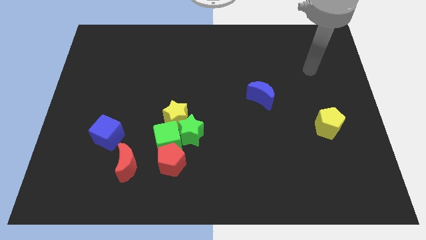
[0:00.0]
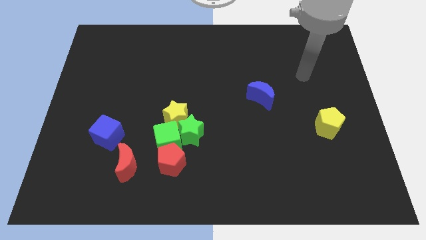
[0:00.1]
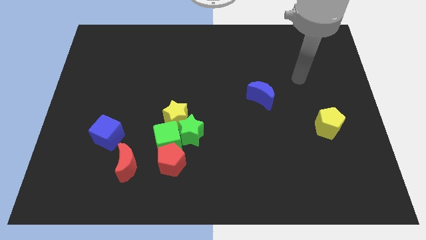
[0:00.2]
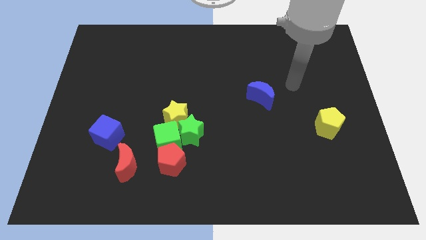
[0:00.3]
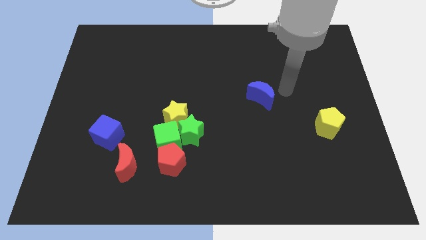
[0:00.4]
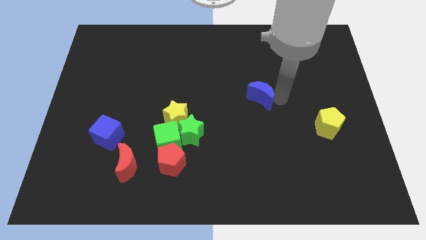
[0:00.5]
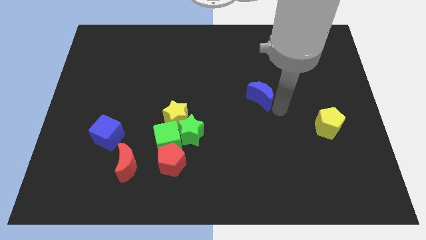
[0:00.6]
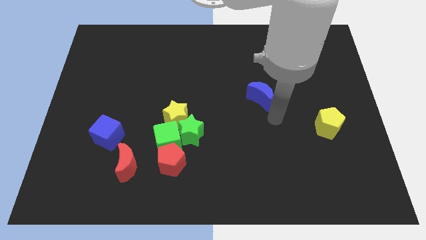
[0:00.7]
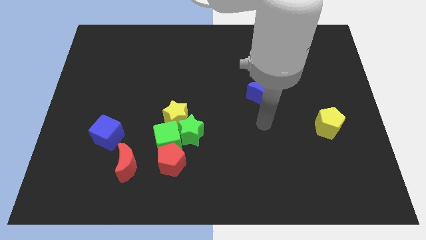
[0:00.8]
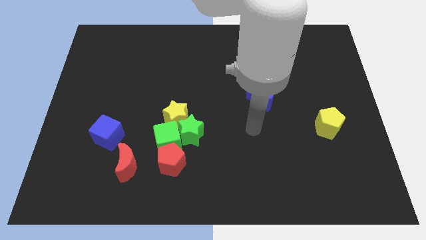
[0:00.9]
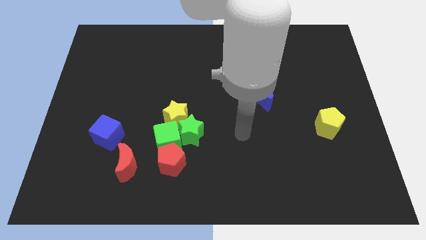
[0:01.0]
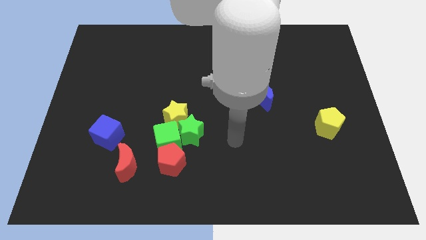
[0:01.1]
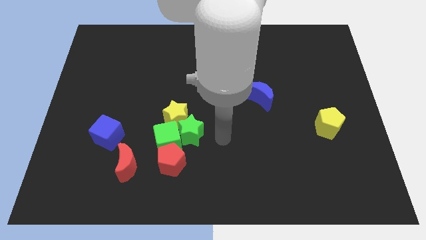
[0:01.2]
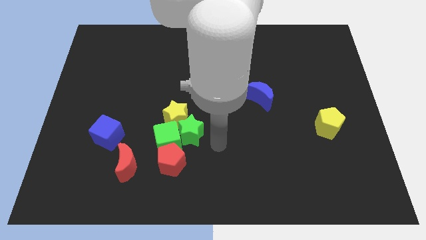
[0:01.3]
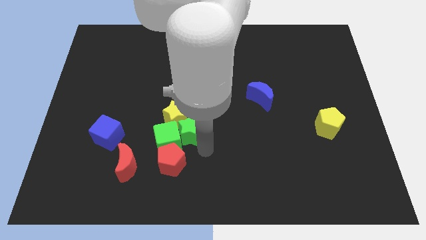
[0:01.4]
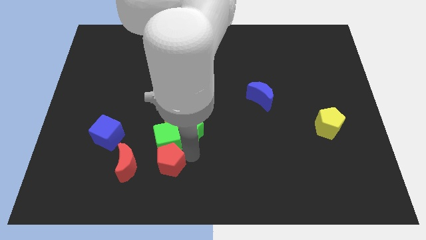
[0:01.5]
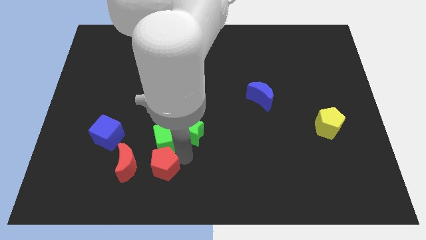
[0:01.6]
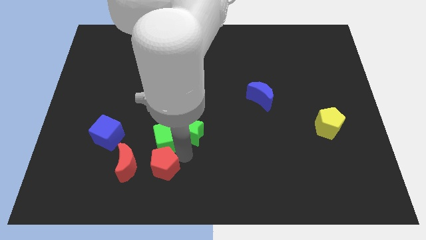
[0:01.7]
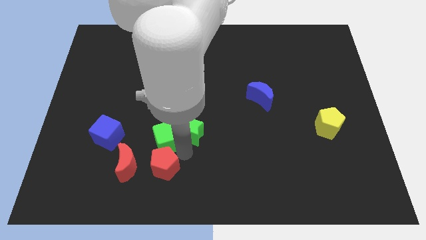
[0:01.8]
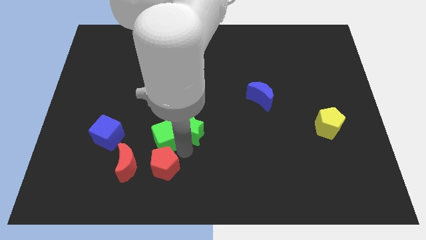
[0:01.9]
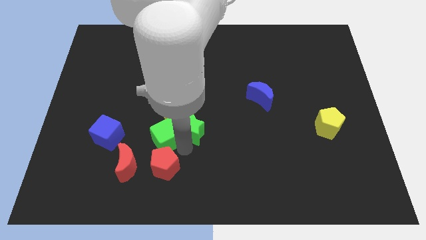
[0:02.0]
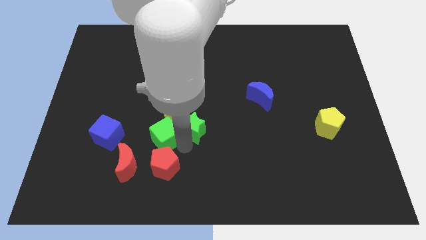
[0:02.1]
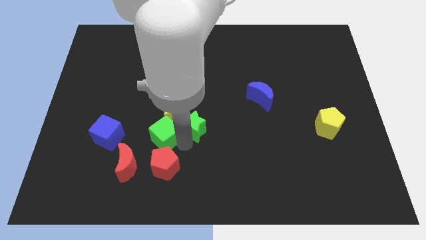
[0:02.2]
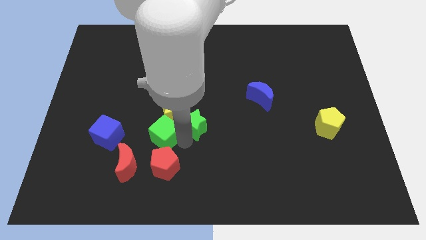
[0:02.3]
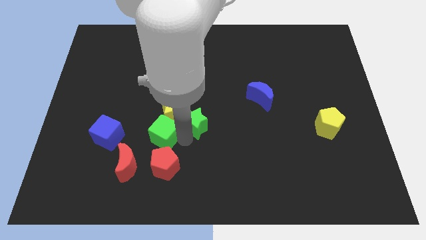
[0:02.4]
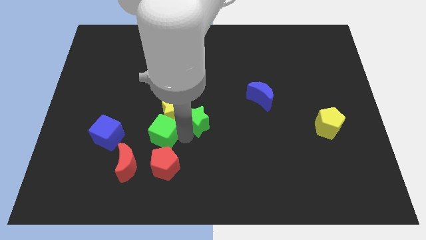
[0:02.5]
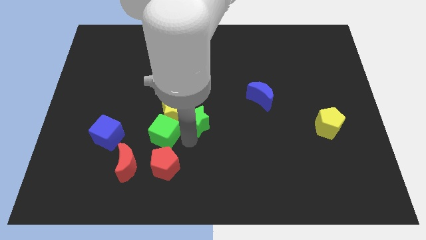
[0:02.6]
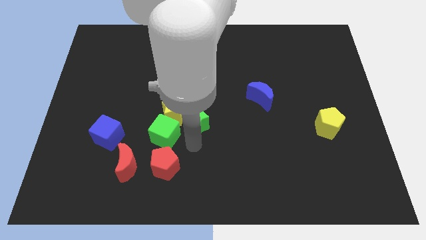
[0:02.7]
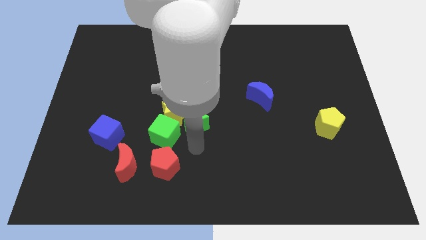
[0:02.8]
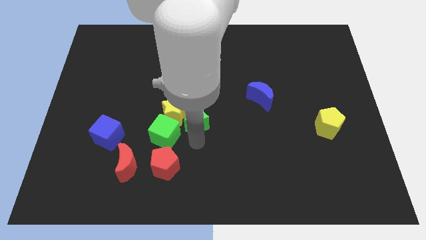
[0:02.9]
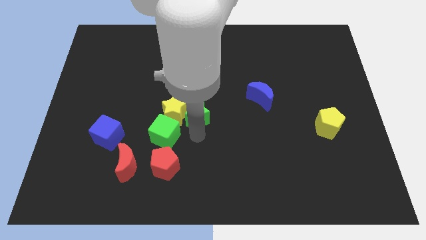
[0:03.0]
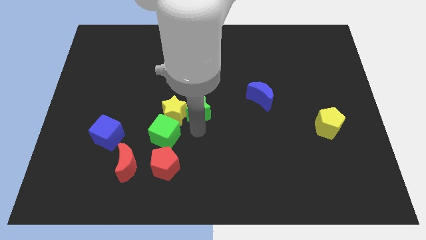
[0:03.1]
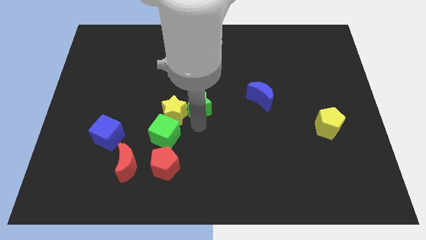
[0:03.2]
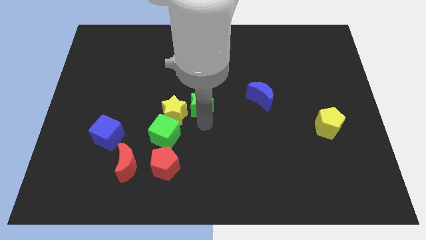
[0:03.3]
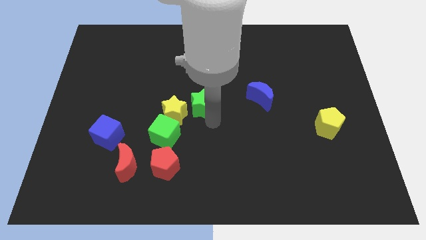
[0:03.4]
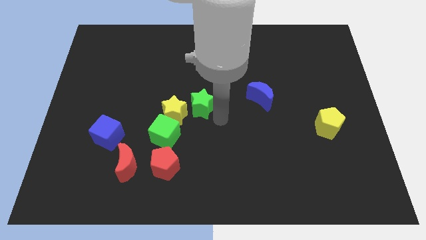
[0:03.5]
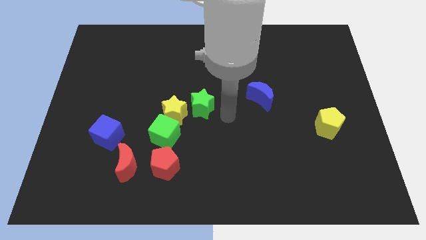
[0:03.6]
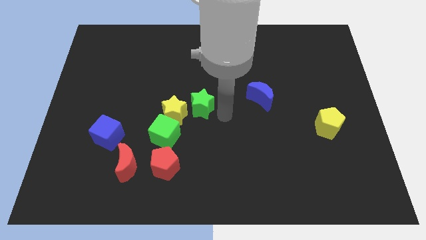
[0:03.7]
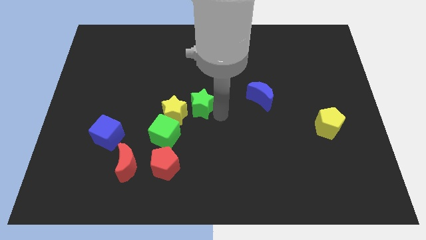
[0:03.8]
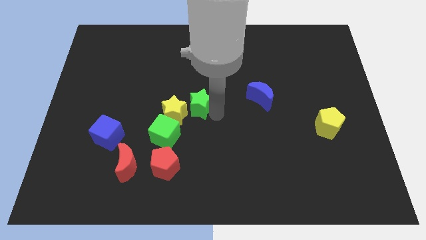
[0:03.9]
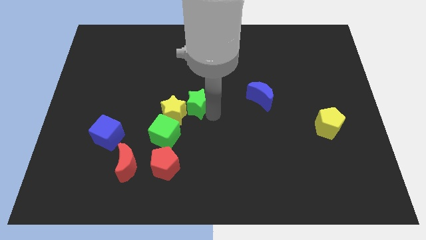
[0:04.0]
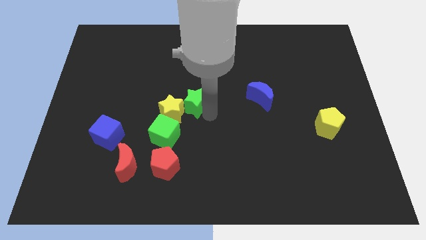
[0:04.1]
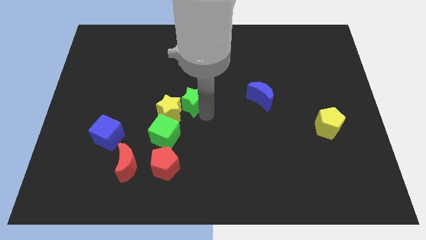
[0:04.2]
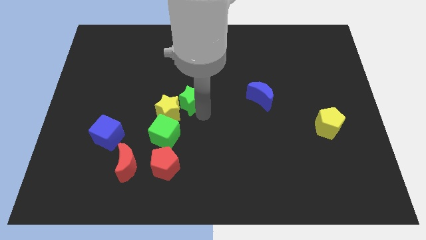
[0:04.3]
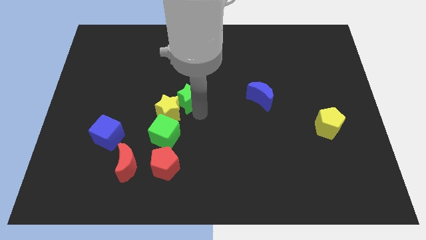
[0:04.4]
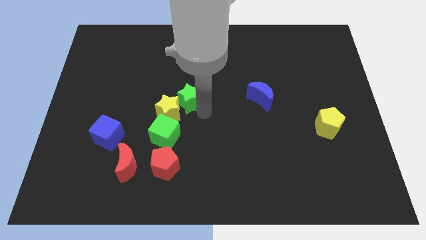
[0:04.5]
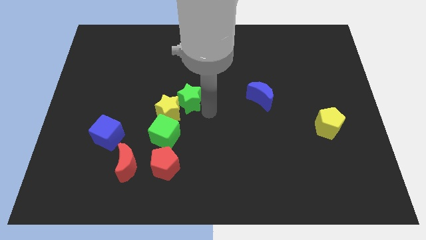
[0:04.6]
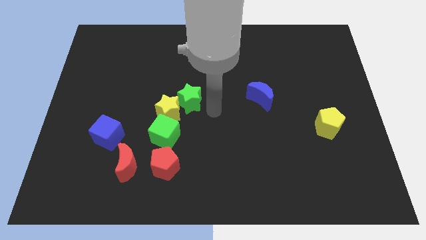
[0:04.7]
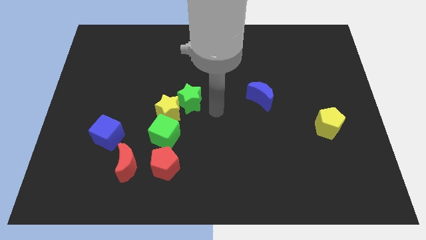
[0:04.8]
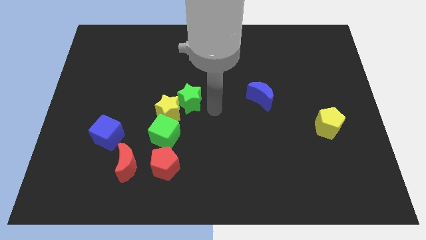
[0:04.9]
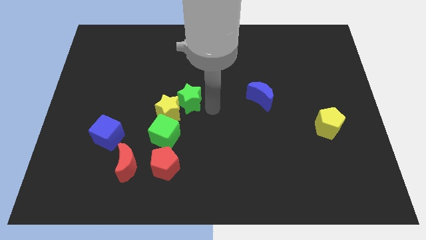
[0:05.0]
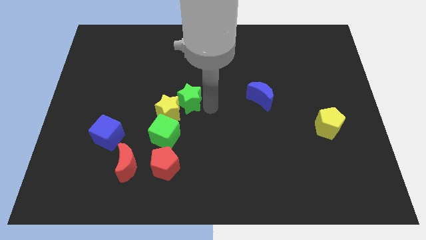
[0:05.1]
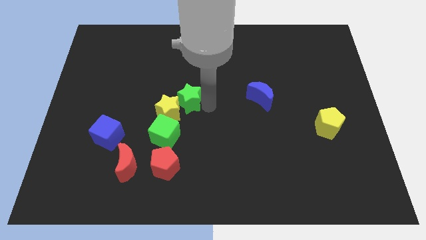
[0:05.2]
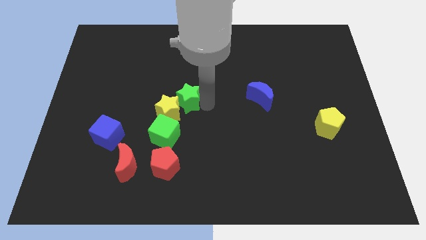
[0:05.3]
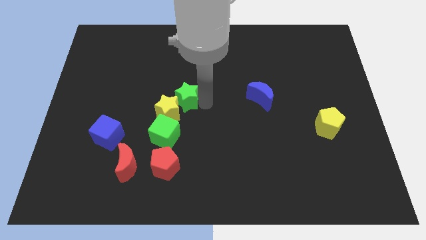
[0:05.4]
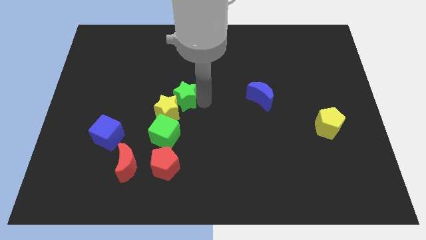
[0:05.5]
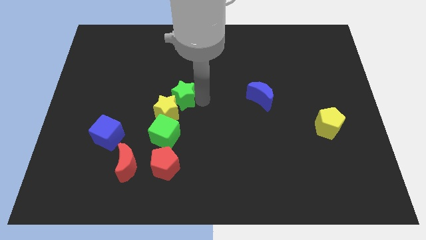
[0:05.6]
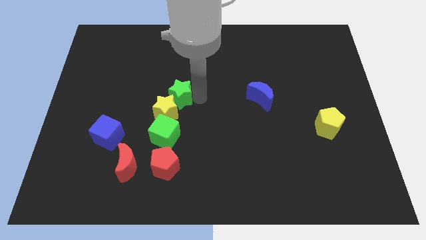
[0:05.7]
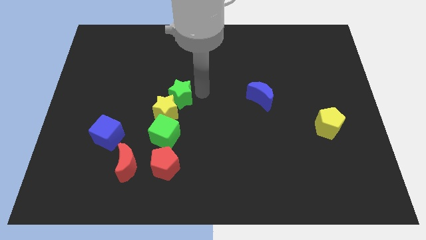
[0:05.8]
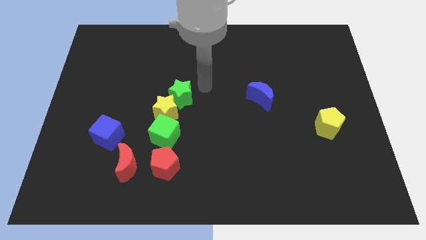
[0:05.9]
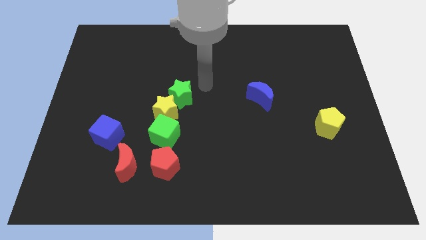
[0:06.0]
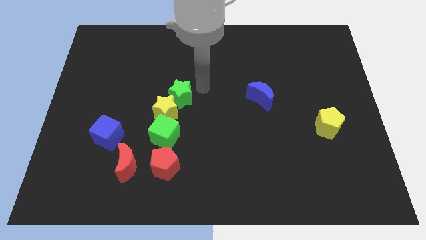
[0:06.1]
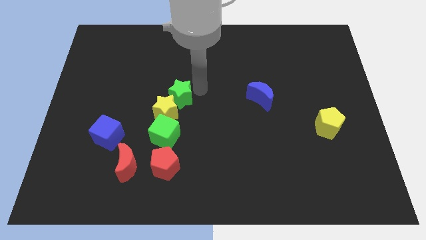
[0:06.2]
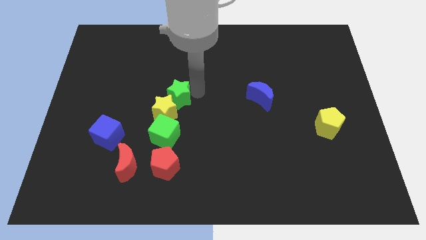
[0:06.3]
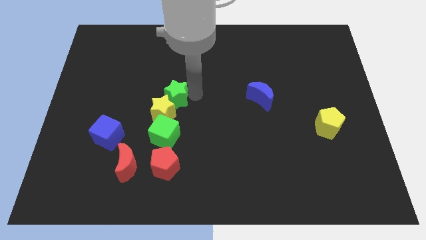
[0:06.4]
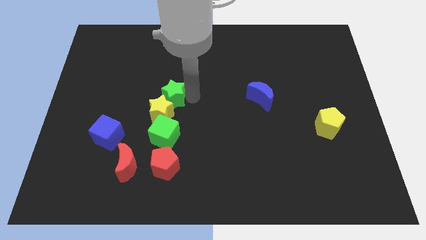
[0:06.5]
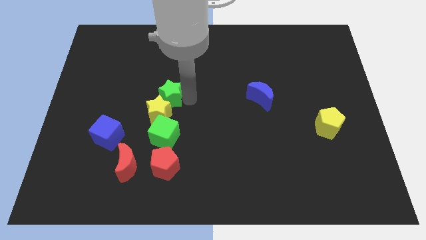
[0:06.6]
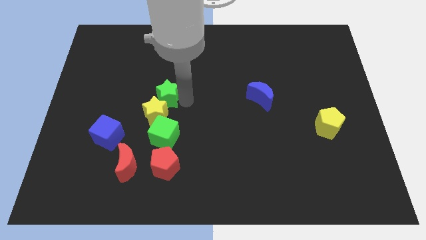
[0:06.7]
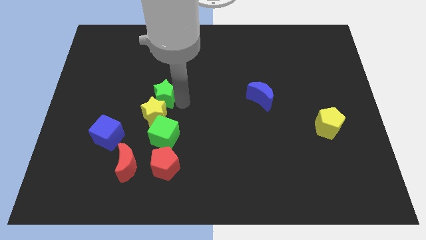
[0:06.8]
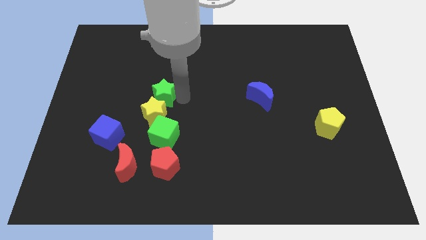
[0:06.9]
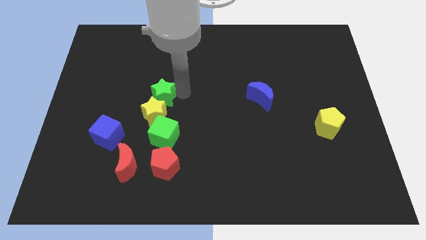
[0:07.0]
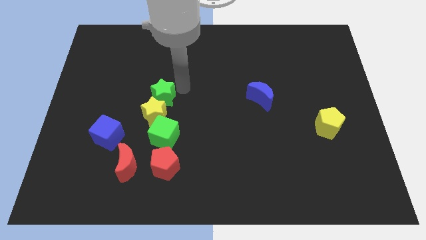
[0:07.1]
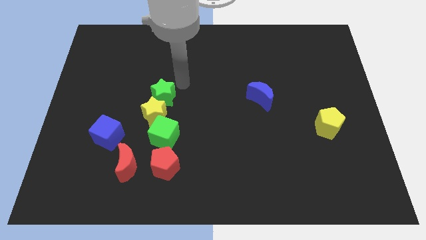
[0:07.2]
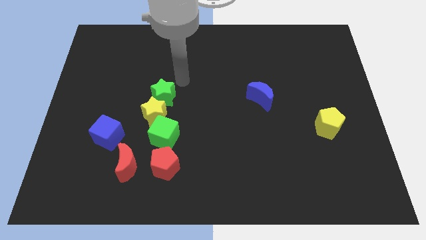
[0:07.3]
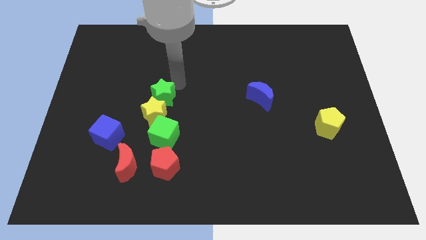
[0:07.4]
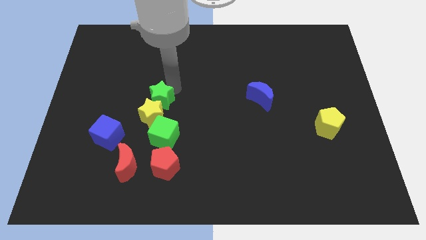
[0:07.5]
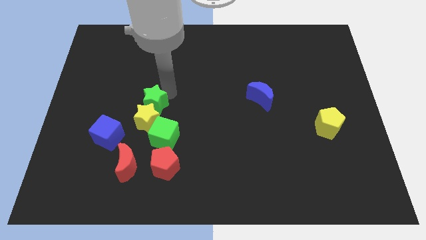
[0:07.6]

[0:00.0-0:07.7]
push the green star to the top left side of the green cube
